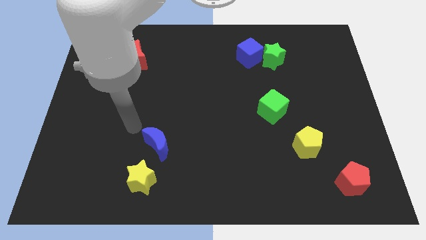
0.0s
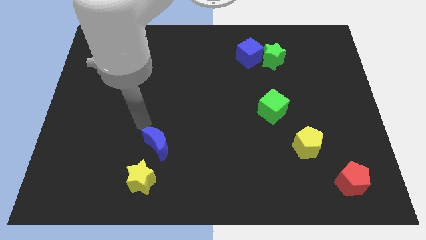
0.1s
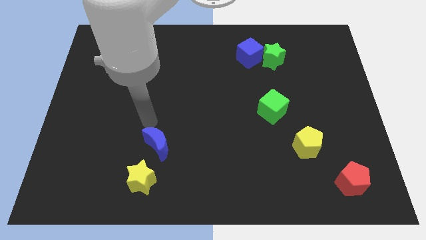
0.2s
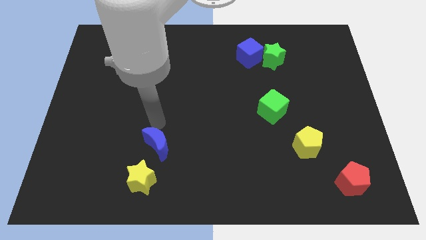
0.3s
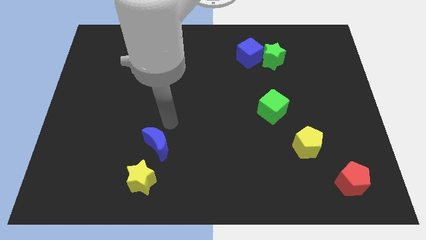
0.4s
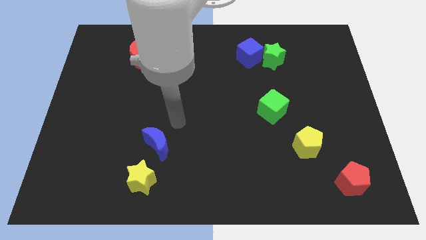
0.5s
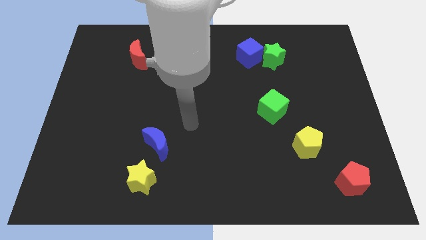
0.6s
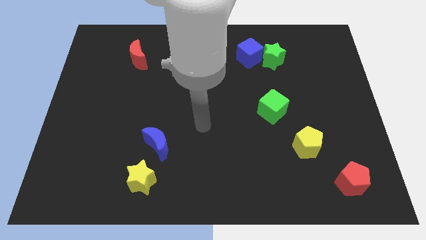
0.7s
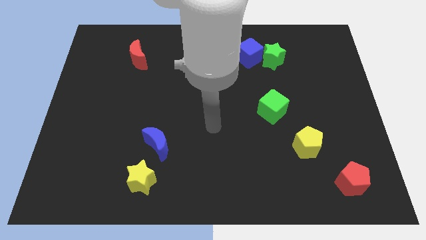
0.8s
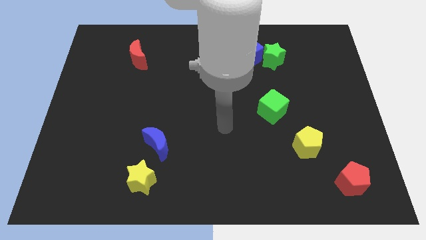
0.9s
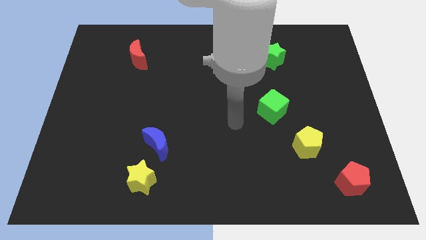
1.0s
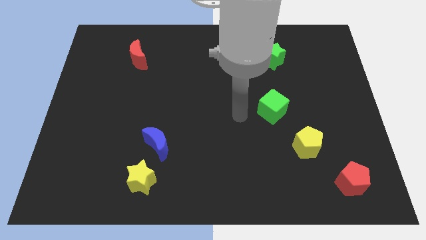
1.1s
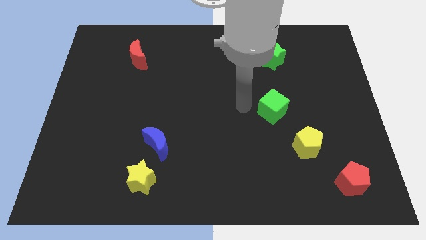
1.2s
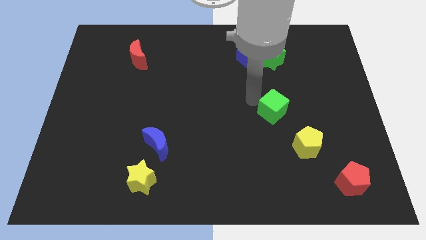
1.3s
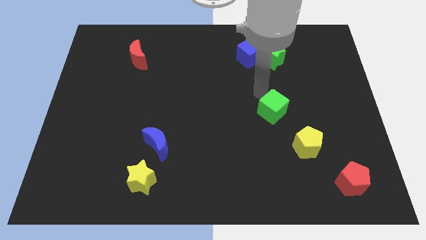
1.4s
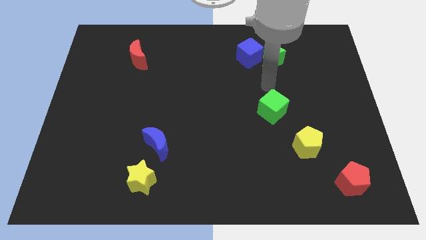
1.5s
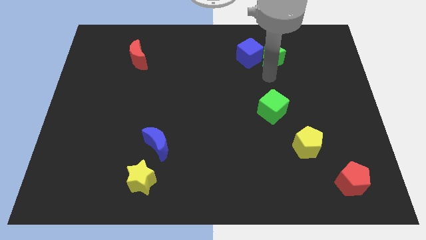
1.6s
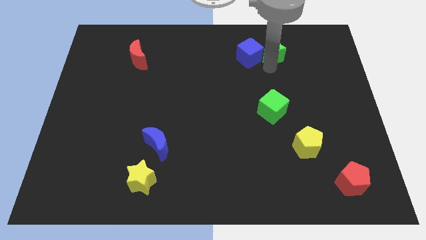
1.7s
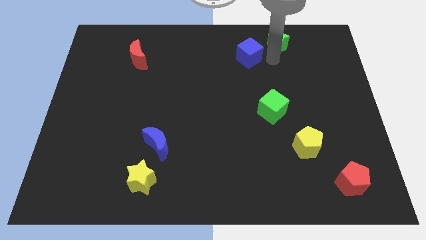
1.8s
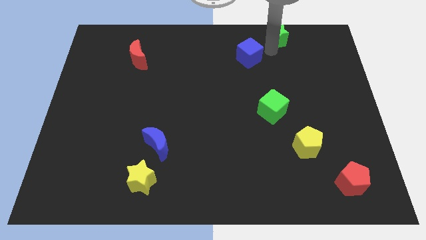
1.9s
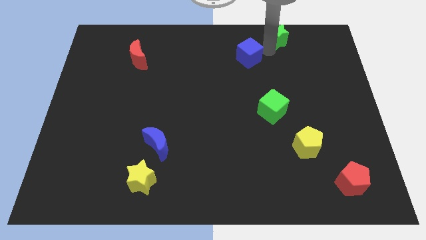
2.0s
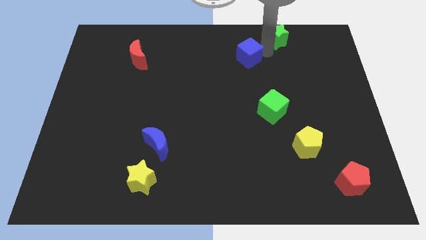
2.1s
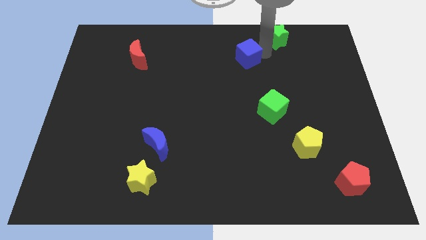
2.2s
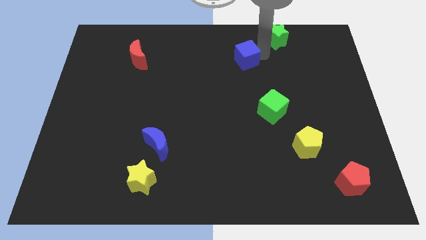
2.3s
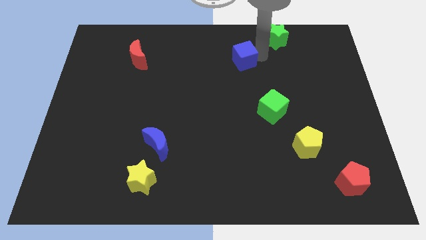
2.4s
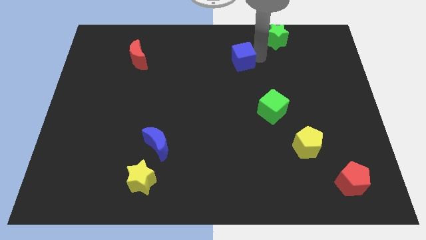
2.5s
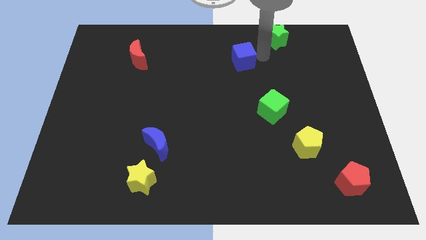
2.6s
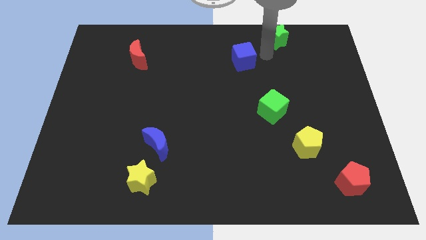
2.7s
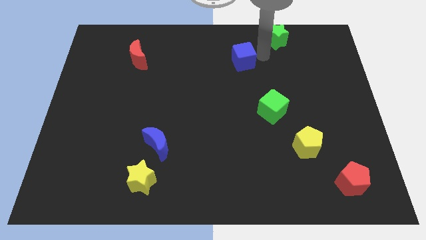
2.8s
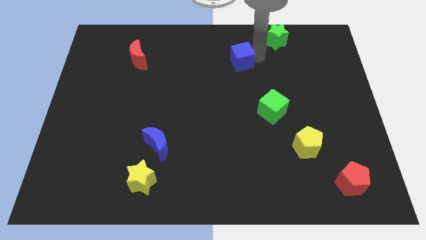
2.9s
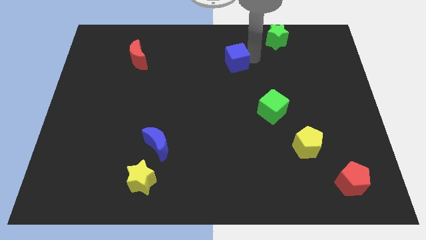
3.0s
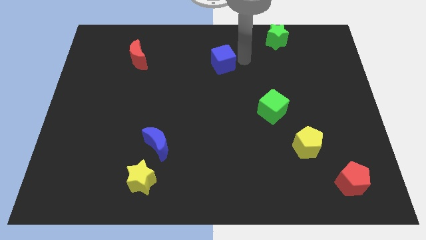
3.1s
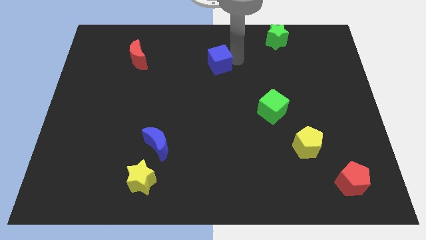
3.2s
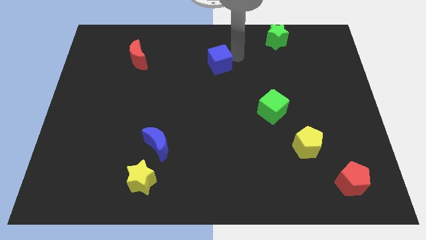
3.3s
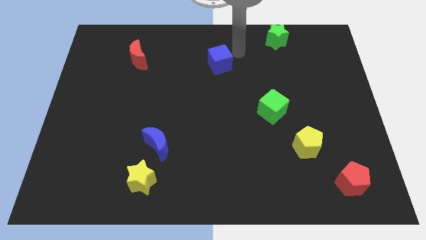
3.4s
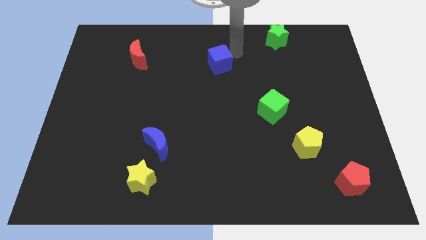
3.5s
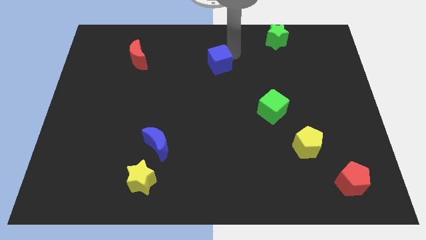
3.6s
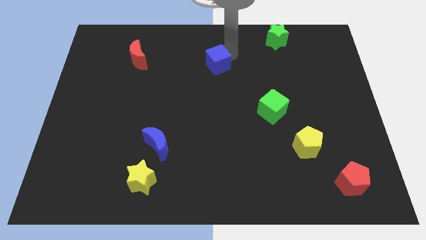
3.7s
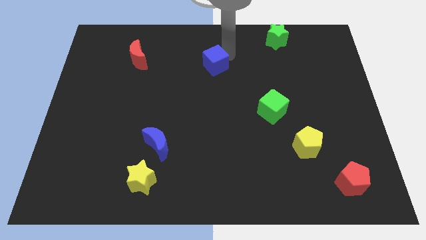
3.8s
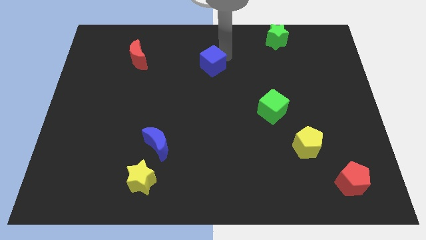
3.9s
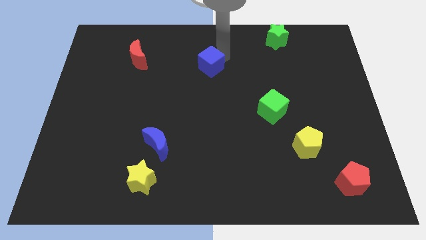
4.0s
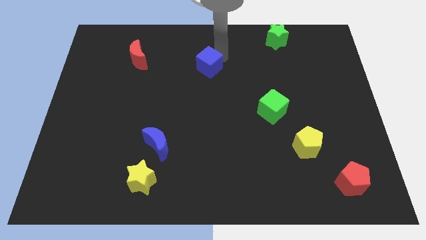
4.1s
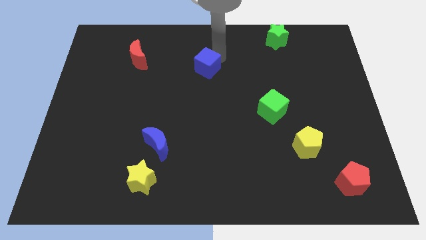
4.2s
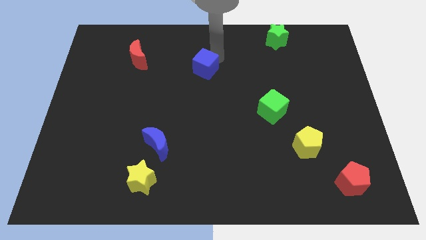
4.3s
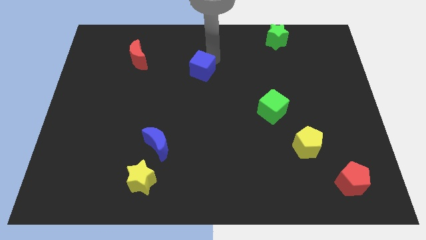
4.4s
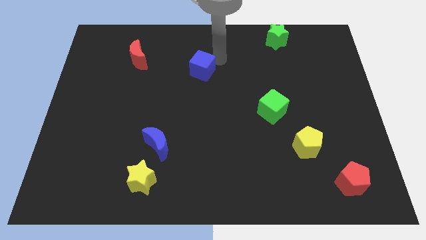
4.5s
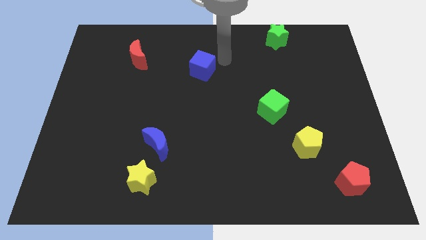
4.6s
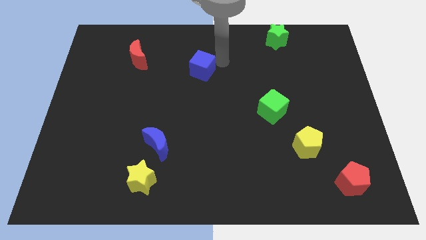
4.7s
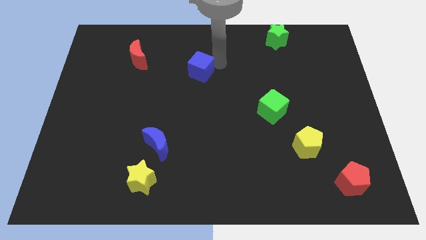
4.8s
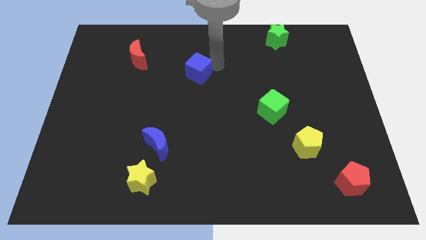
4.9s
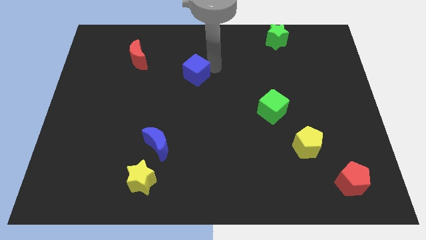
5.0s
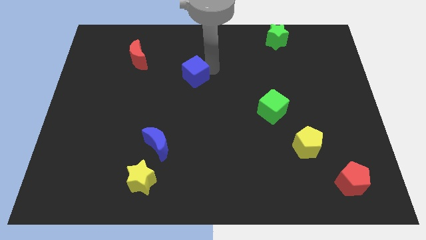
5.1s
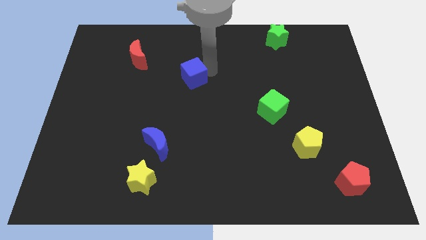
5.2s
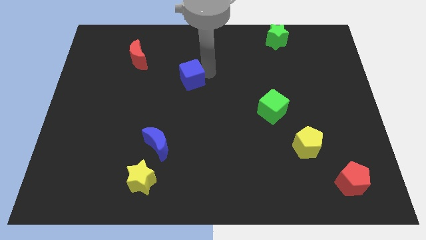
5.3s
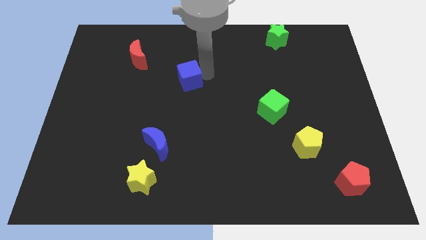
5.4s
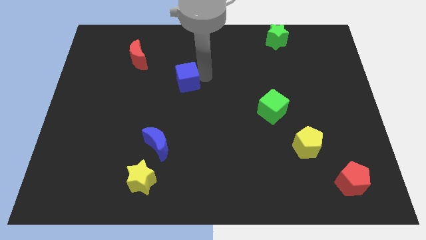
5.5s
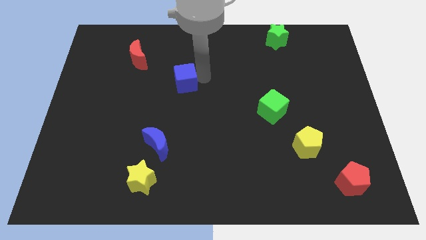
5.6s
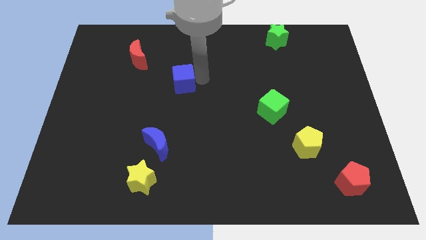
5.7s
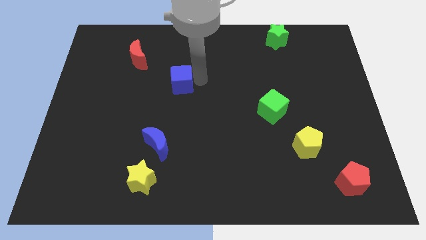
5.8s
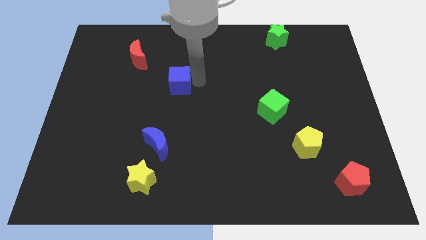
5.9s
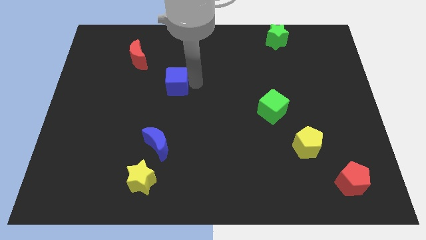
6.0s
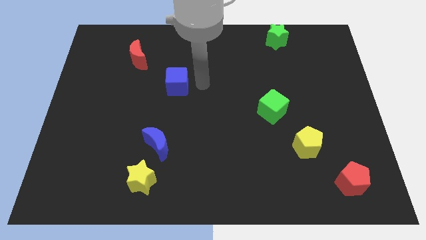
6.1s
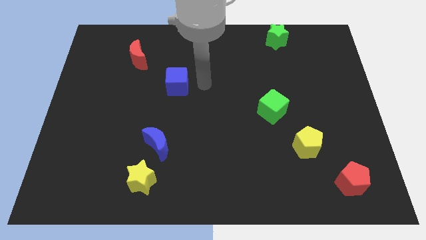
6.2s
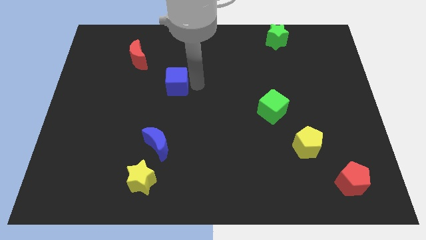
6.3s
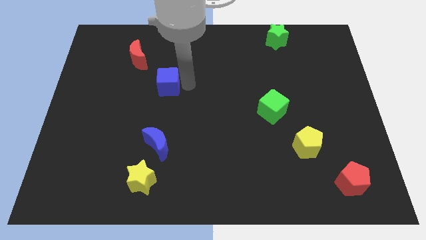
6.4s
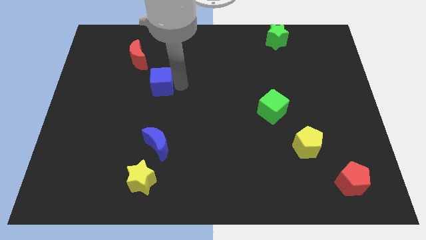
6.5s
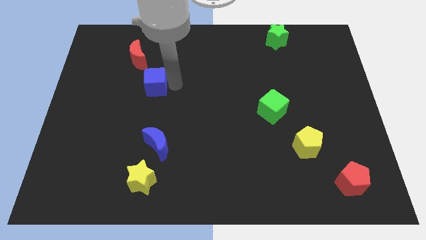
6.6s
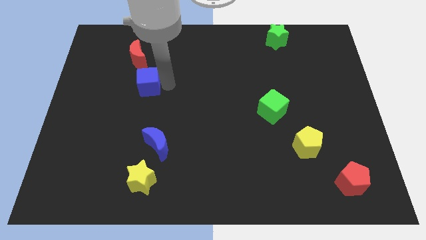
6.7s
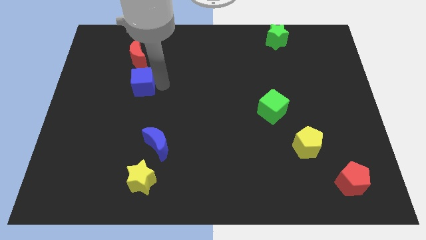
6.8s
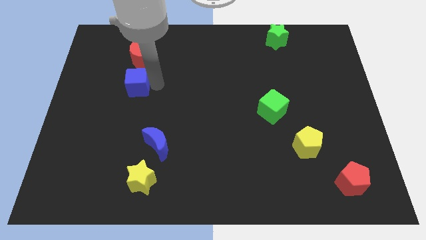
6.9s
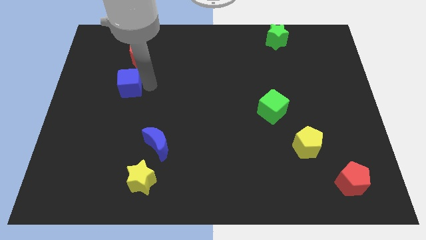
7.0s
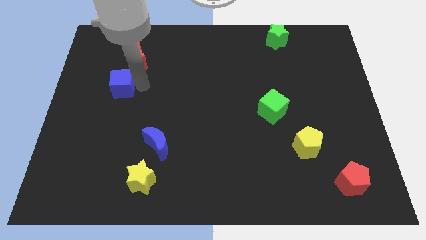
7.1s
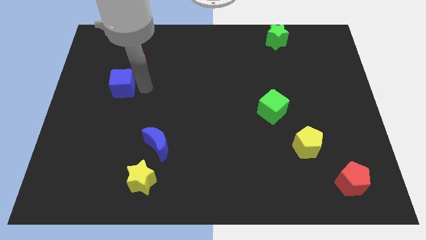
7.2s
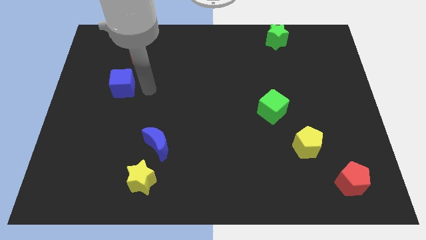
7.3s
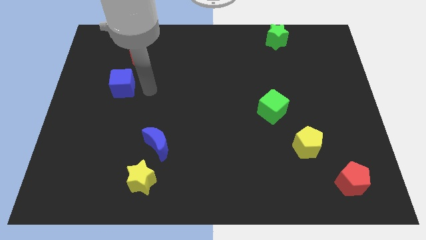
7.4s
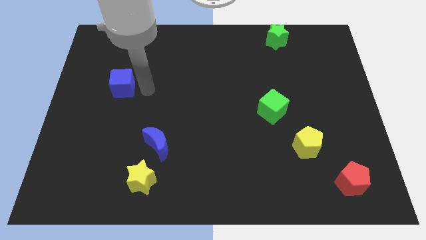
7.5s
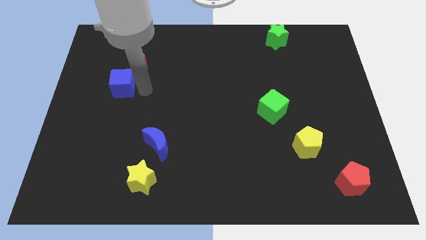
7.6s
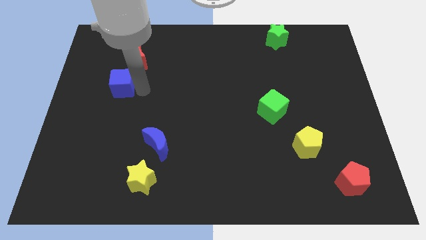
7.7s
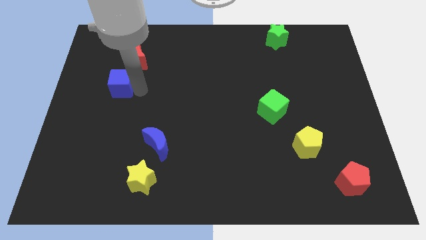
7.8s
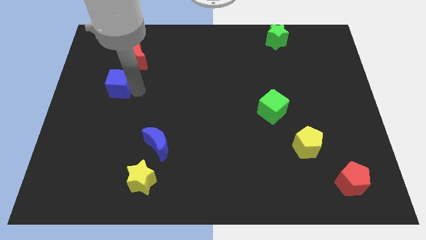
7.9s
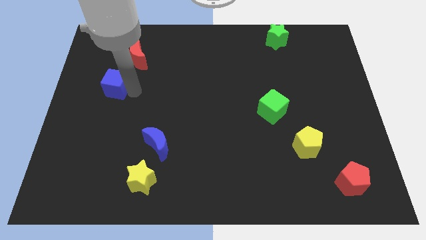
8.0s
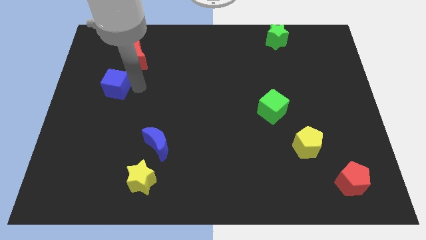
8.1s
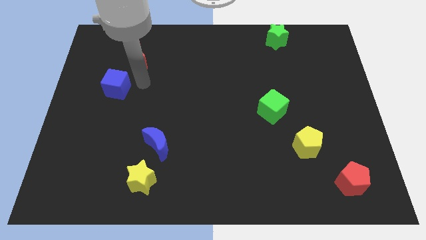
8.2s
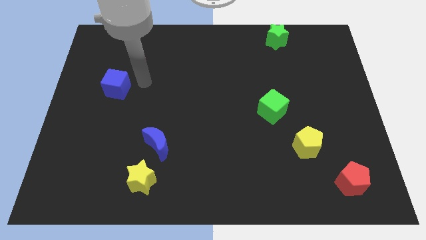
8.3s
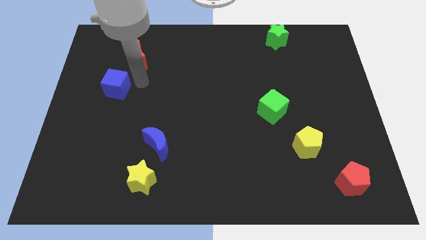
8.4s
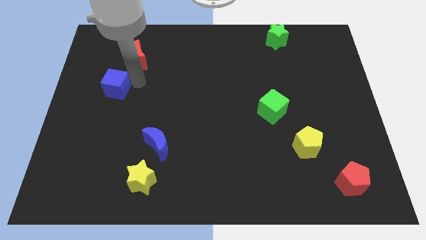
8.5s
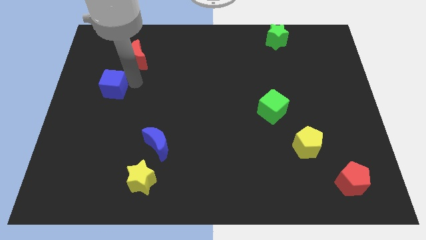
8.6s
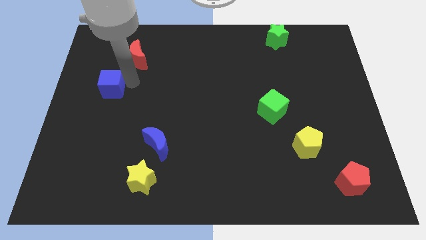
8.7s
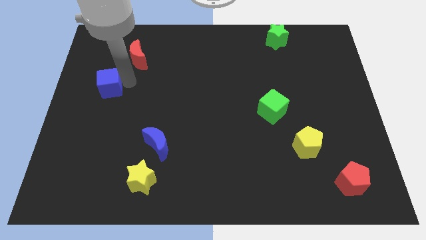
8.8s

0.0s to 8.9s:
slide the blue cube to the left side of the board
